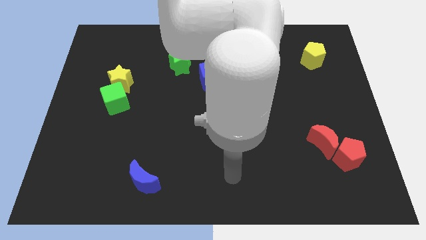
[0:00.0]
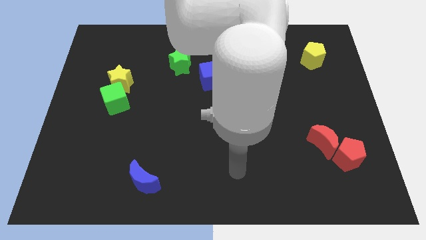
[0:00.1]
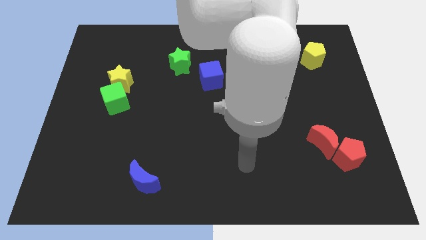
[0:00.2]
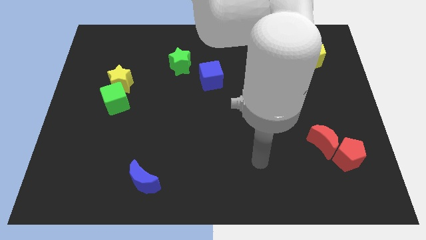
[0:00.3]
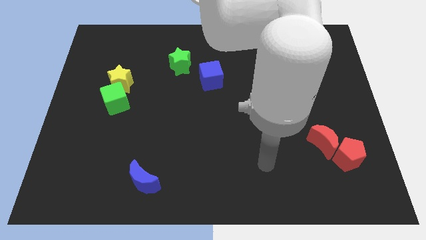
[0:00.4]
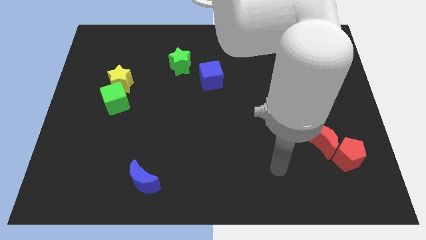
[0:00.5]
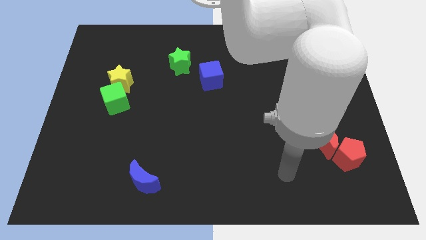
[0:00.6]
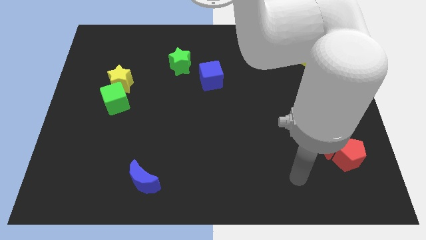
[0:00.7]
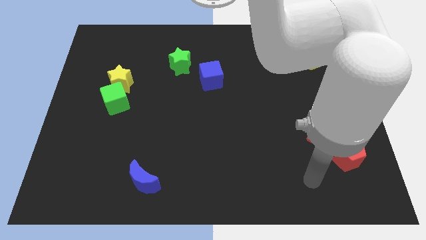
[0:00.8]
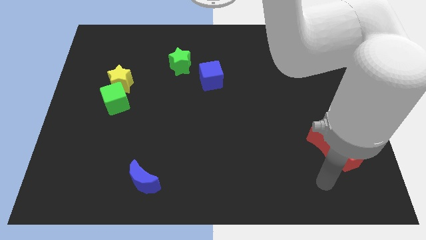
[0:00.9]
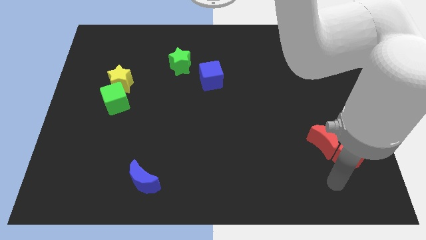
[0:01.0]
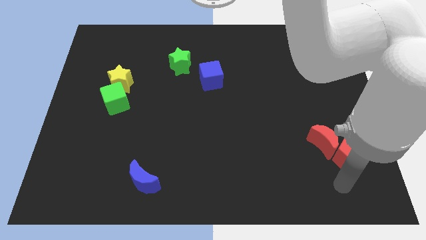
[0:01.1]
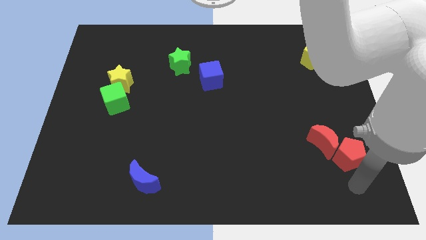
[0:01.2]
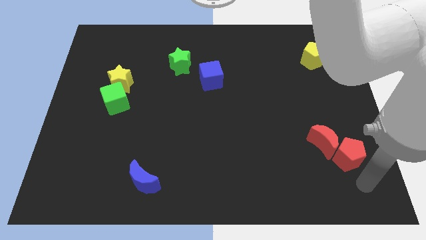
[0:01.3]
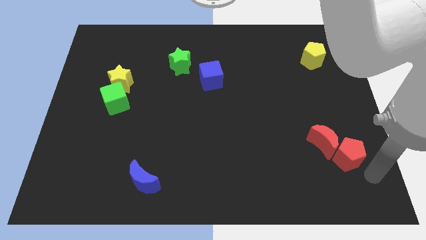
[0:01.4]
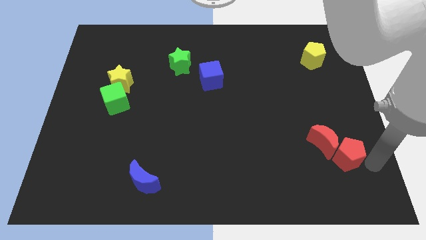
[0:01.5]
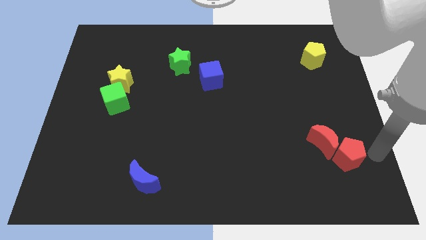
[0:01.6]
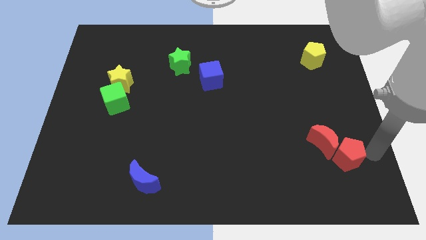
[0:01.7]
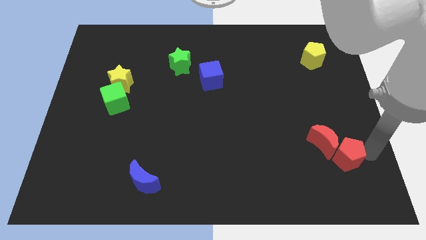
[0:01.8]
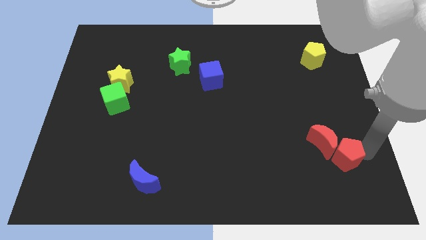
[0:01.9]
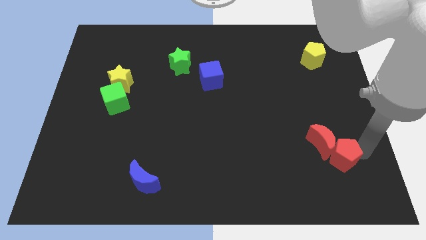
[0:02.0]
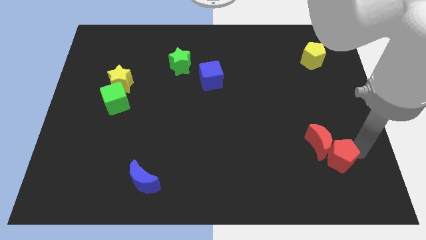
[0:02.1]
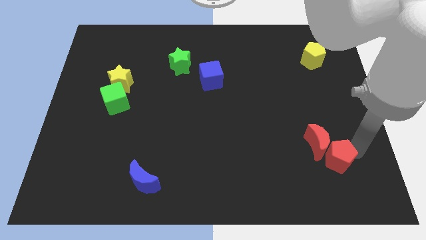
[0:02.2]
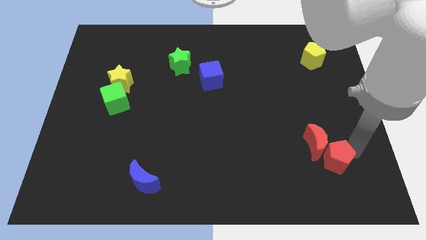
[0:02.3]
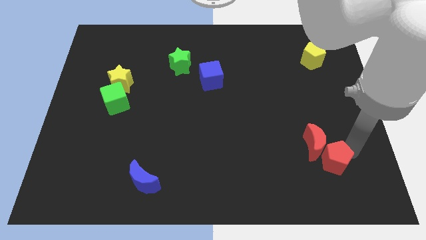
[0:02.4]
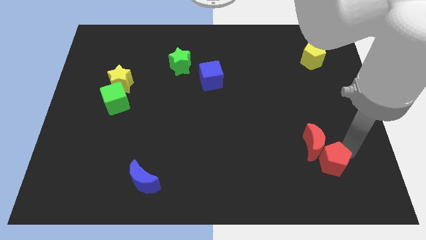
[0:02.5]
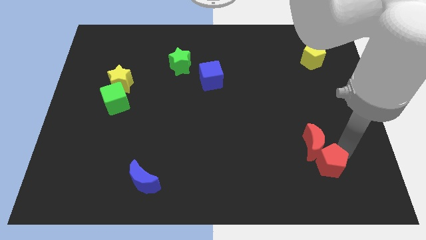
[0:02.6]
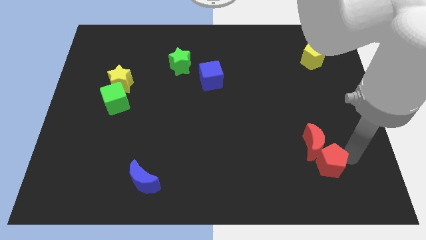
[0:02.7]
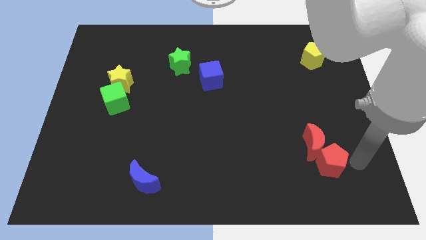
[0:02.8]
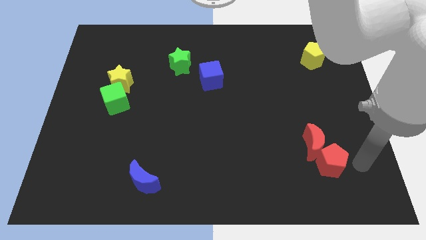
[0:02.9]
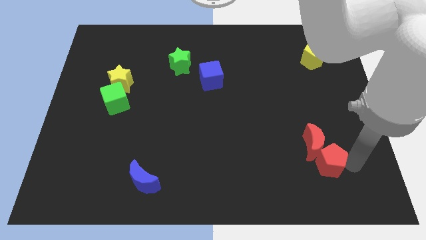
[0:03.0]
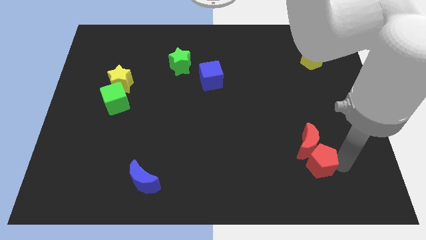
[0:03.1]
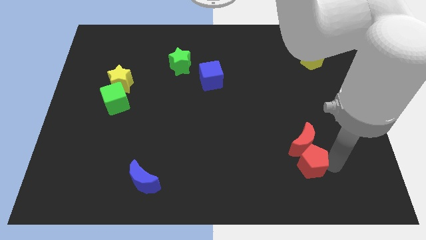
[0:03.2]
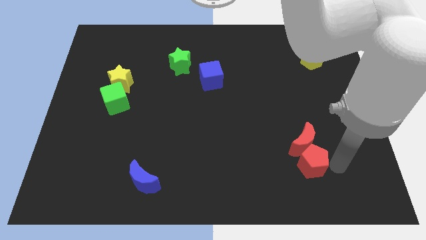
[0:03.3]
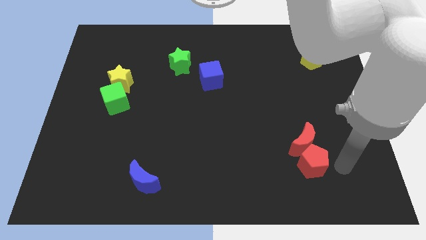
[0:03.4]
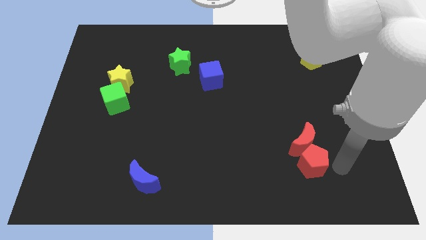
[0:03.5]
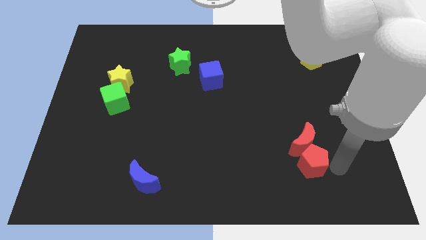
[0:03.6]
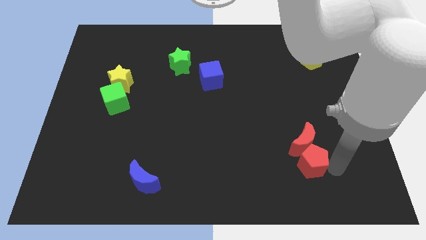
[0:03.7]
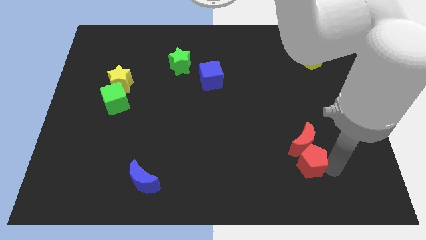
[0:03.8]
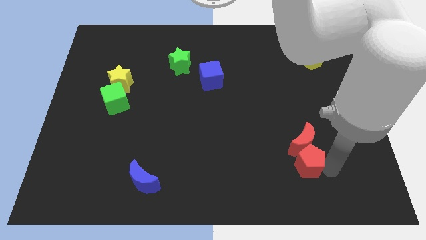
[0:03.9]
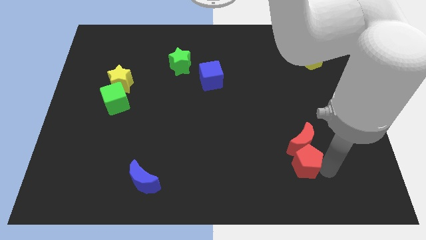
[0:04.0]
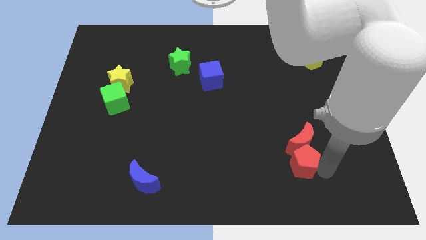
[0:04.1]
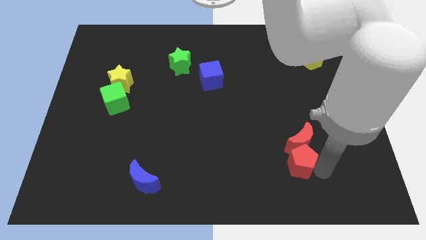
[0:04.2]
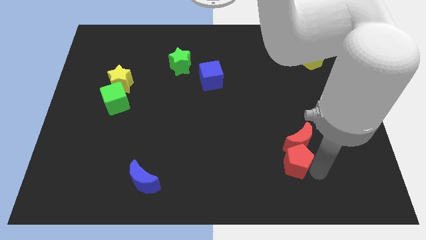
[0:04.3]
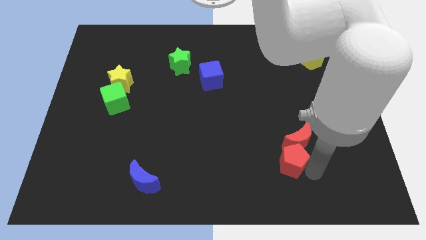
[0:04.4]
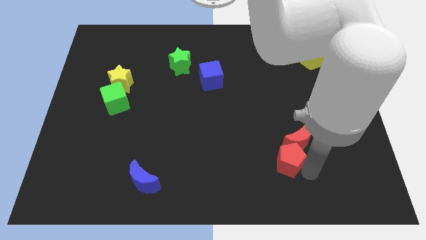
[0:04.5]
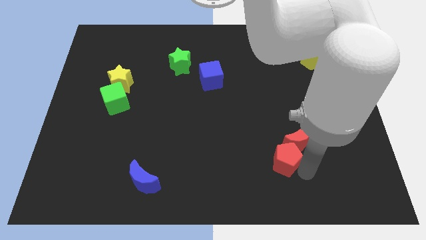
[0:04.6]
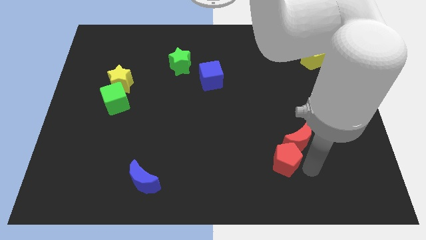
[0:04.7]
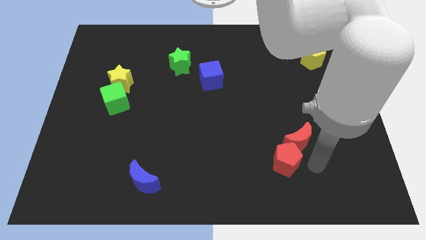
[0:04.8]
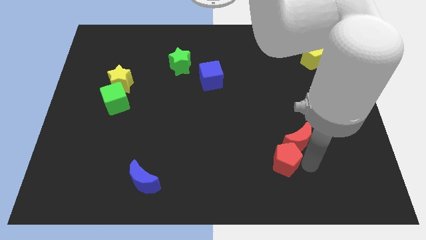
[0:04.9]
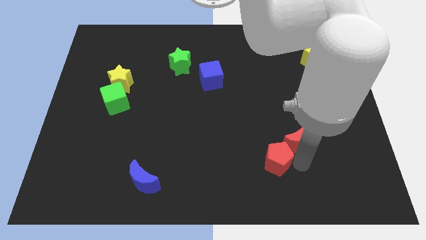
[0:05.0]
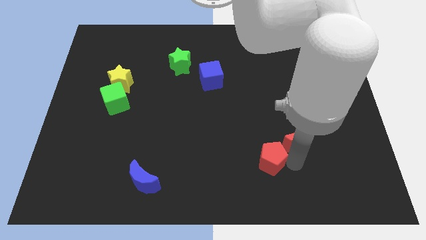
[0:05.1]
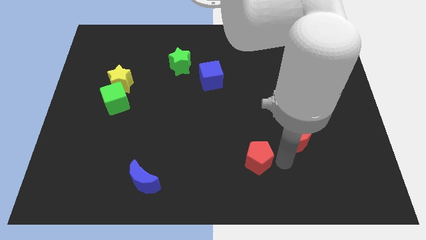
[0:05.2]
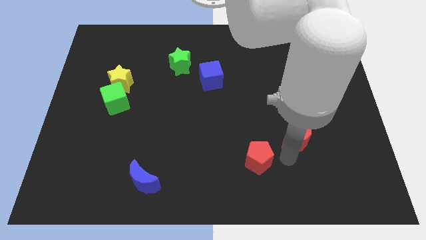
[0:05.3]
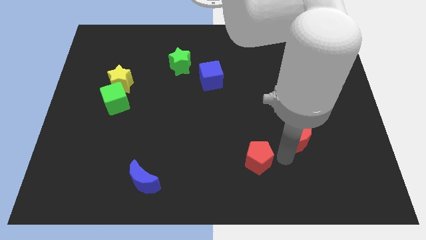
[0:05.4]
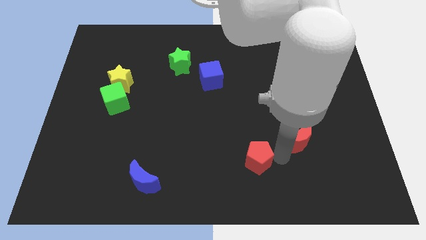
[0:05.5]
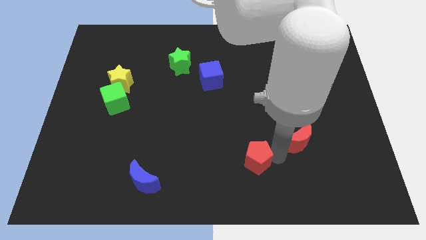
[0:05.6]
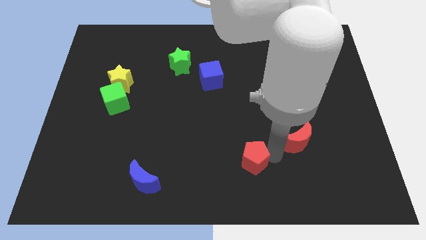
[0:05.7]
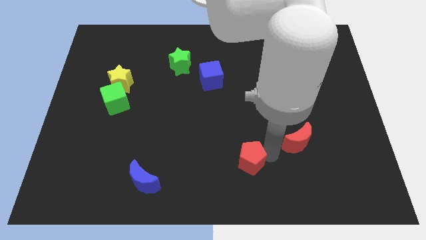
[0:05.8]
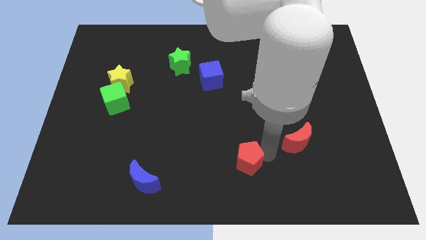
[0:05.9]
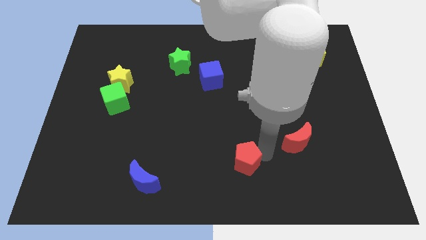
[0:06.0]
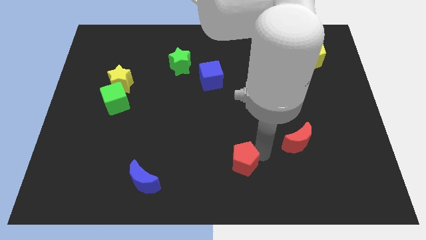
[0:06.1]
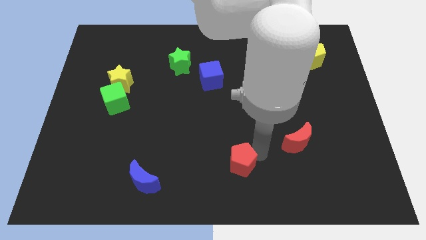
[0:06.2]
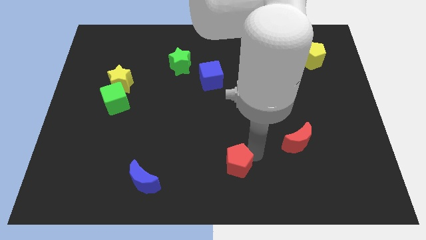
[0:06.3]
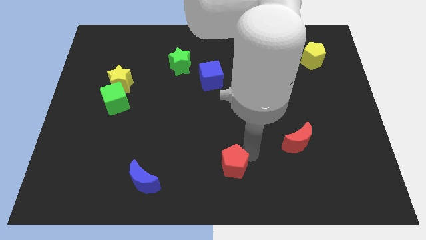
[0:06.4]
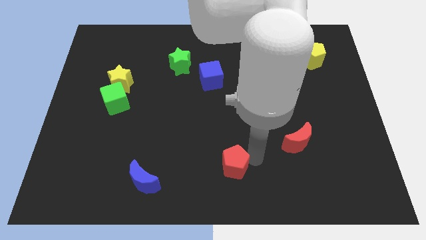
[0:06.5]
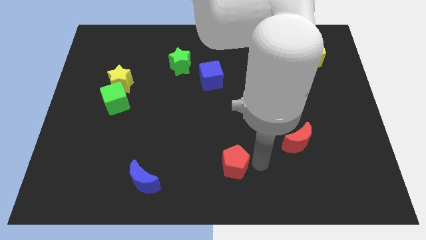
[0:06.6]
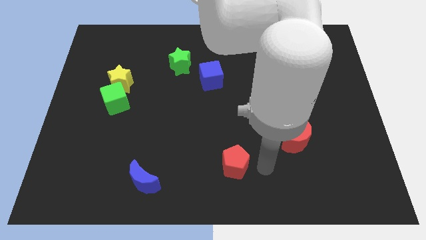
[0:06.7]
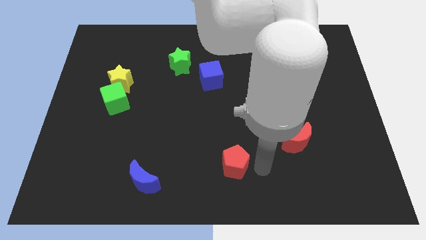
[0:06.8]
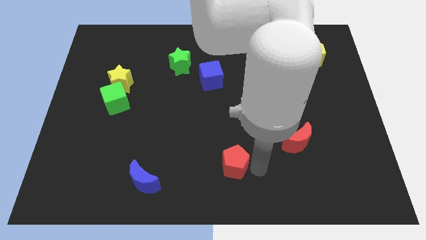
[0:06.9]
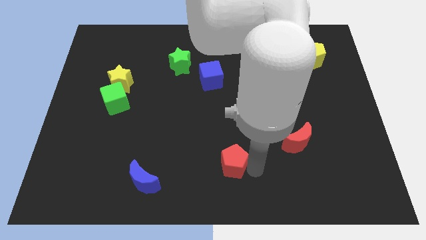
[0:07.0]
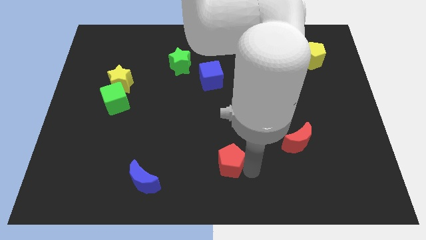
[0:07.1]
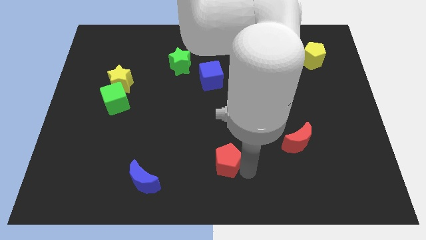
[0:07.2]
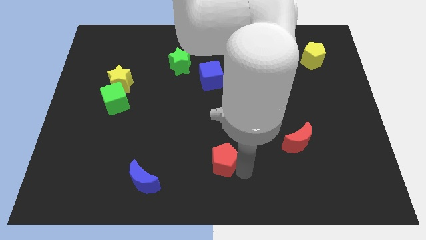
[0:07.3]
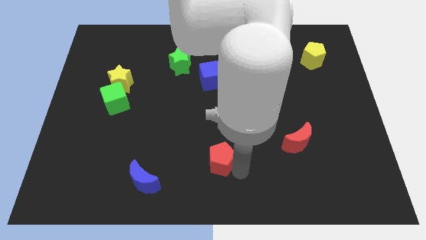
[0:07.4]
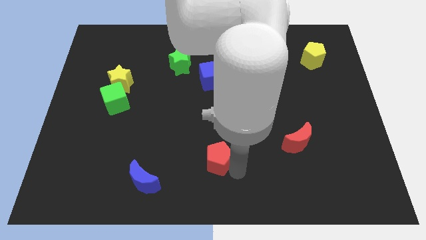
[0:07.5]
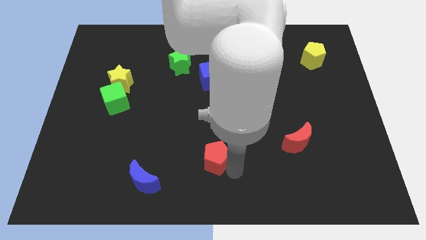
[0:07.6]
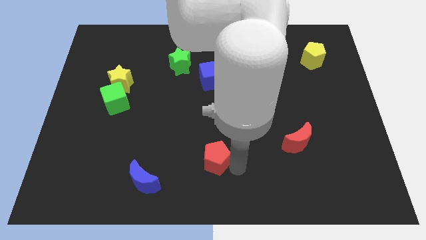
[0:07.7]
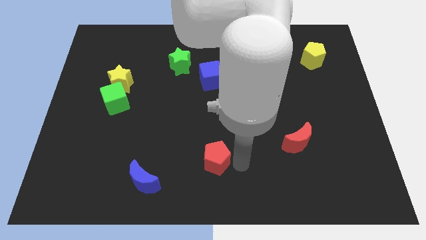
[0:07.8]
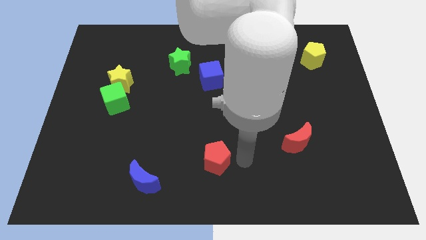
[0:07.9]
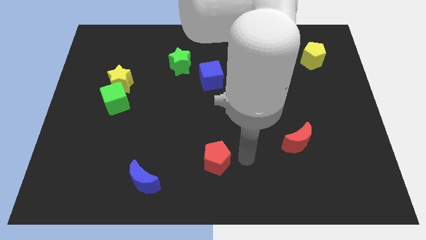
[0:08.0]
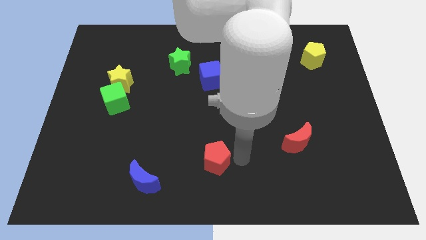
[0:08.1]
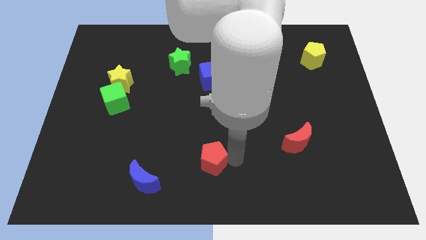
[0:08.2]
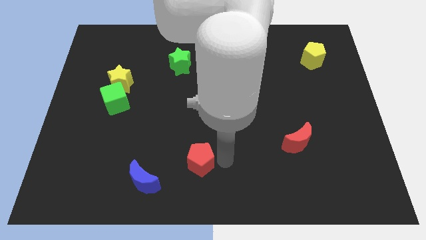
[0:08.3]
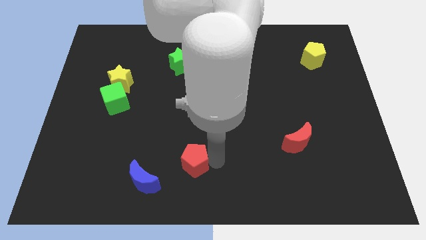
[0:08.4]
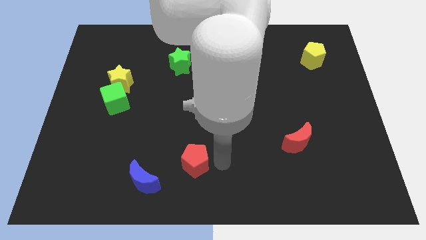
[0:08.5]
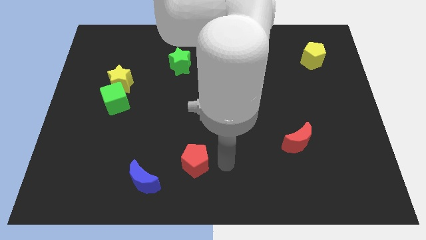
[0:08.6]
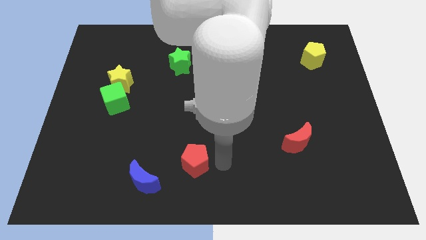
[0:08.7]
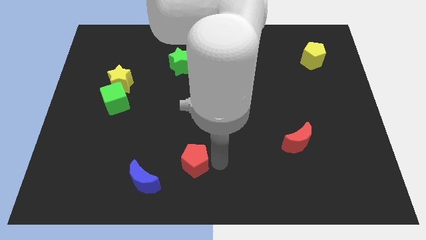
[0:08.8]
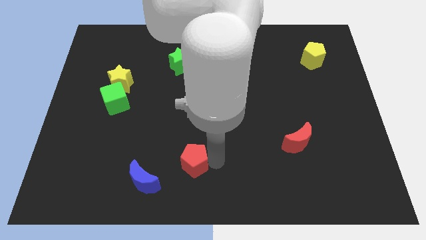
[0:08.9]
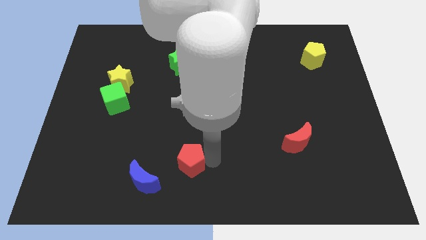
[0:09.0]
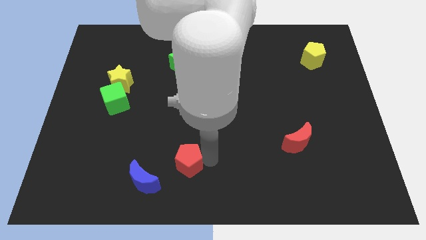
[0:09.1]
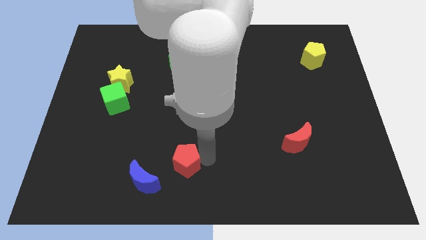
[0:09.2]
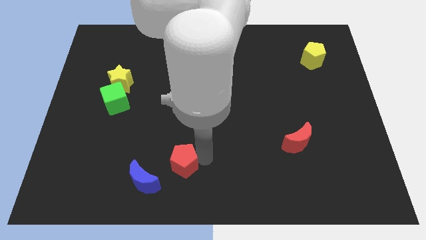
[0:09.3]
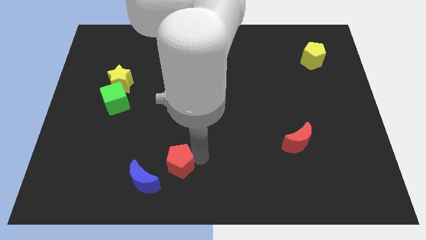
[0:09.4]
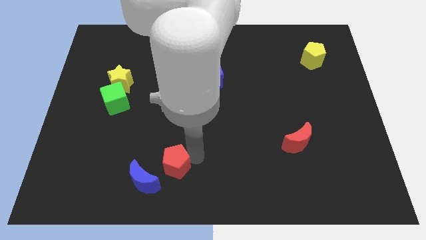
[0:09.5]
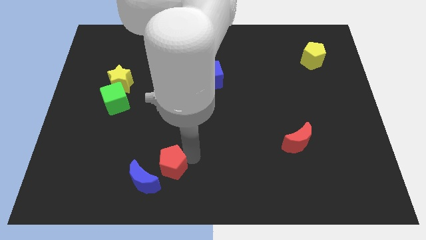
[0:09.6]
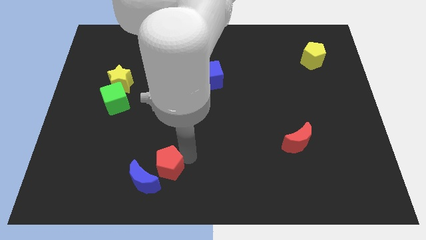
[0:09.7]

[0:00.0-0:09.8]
push the red pentagon next to the blue moon
